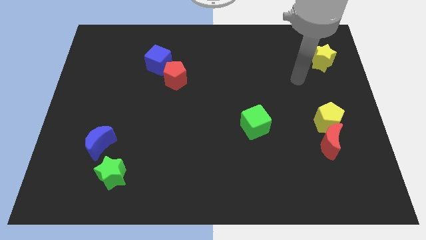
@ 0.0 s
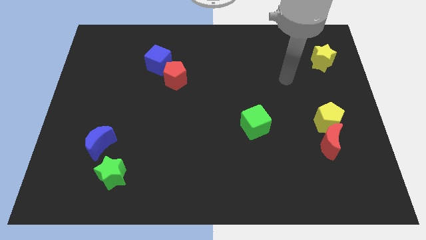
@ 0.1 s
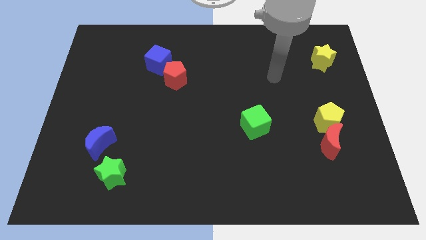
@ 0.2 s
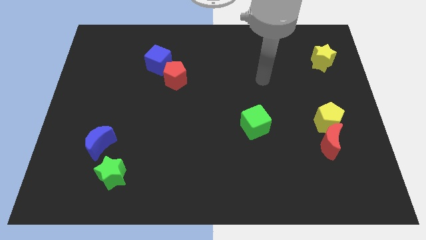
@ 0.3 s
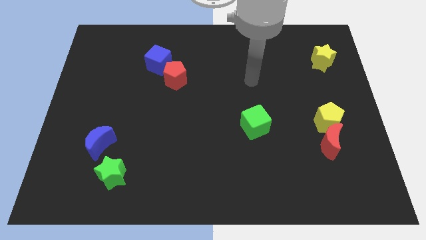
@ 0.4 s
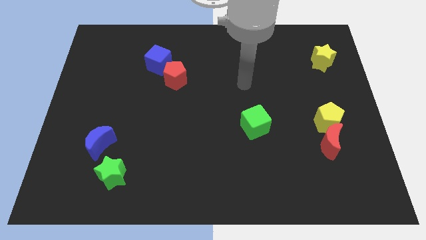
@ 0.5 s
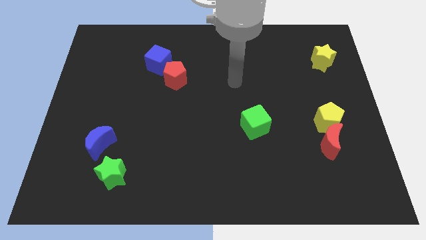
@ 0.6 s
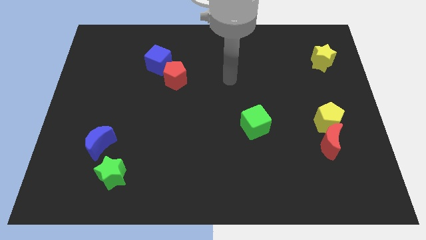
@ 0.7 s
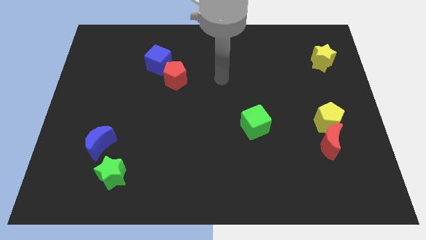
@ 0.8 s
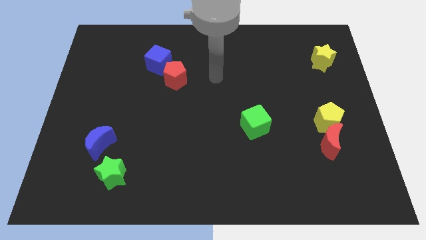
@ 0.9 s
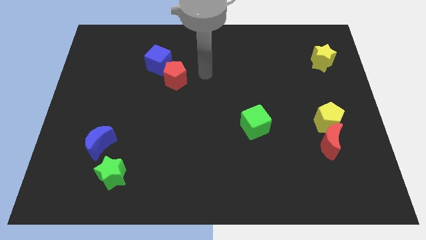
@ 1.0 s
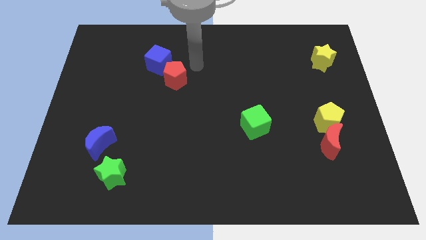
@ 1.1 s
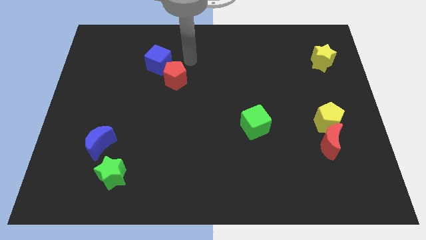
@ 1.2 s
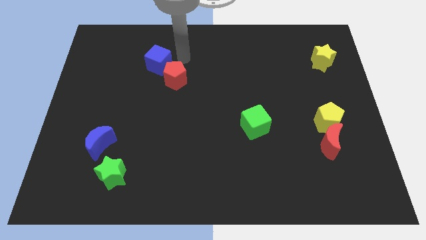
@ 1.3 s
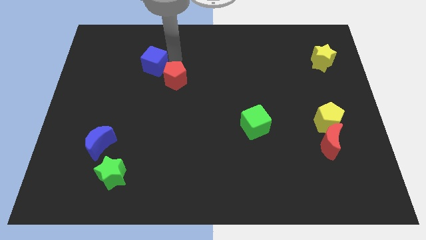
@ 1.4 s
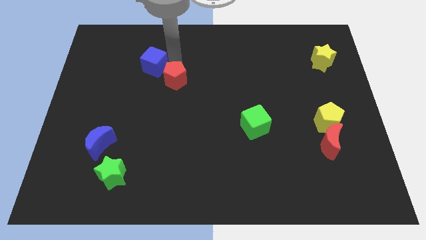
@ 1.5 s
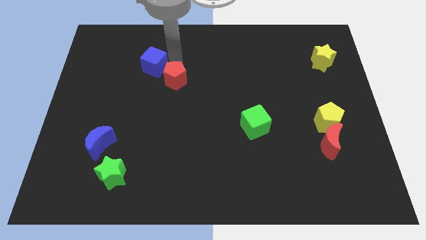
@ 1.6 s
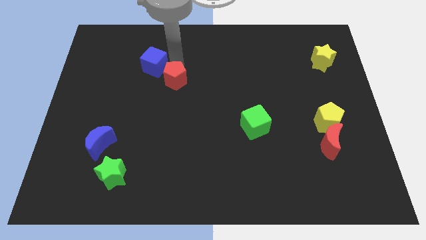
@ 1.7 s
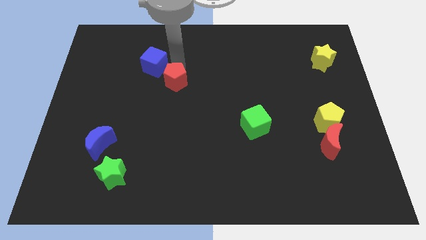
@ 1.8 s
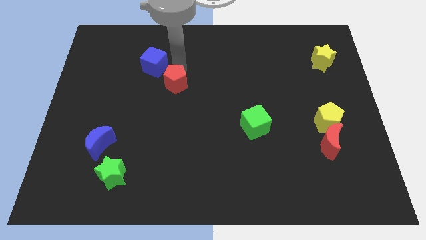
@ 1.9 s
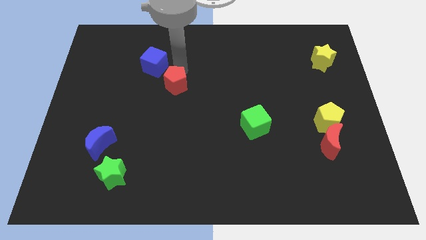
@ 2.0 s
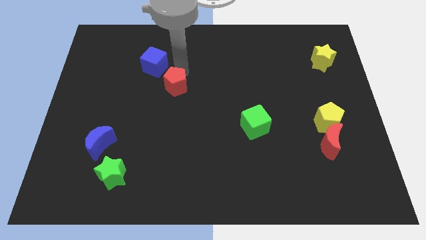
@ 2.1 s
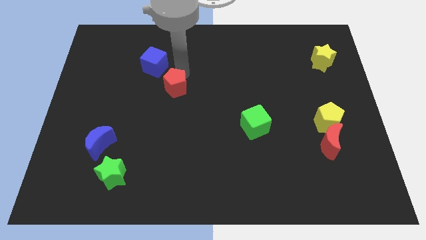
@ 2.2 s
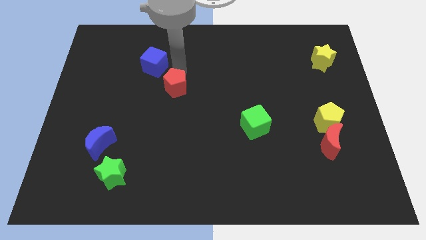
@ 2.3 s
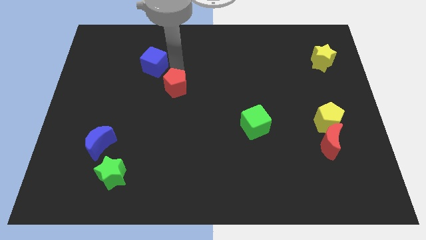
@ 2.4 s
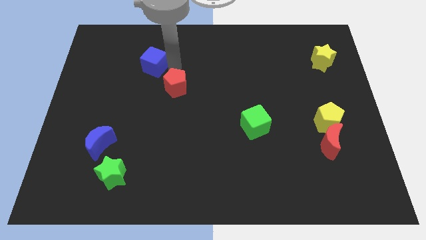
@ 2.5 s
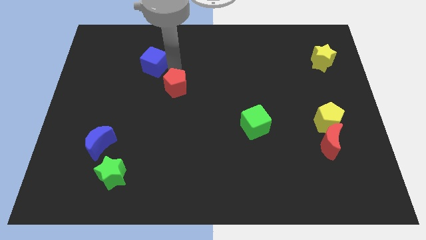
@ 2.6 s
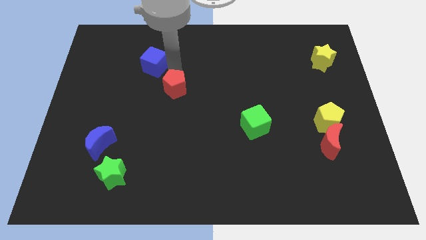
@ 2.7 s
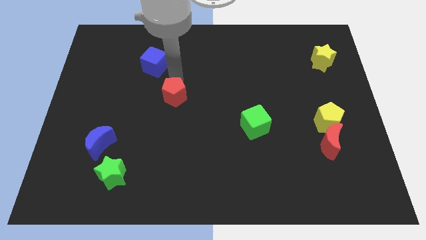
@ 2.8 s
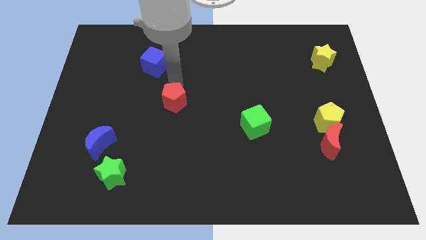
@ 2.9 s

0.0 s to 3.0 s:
push the red pentagon down somewhat

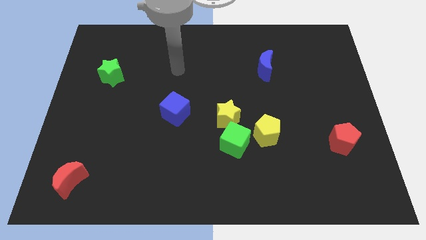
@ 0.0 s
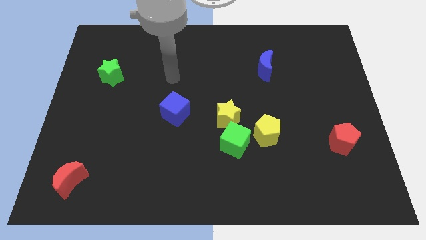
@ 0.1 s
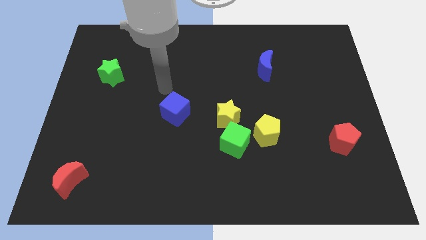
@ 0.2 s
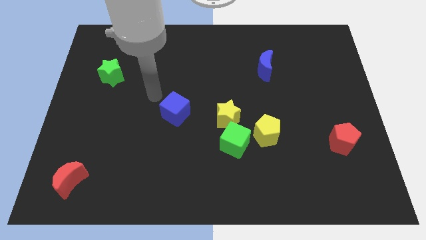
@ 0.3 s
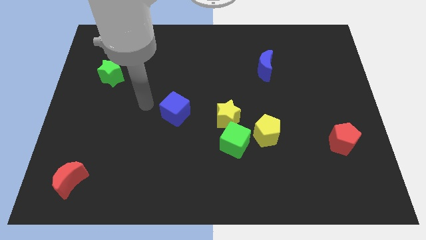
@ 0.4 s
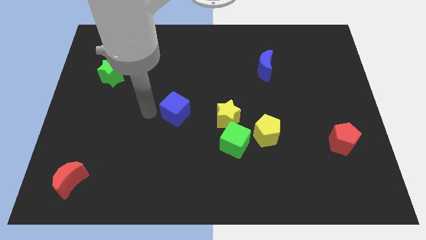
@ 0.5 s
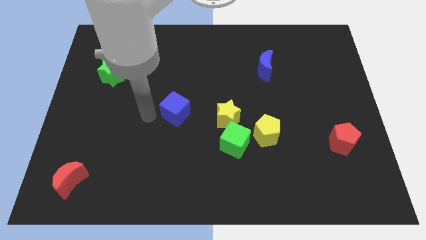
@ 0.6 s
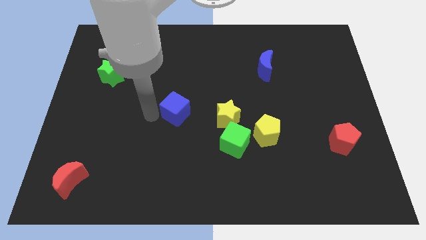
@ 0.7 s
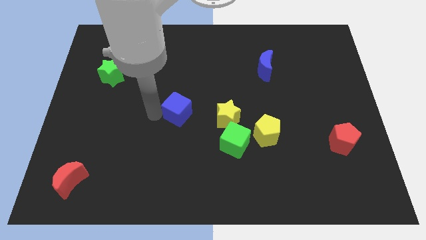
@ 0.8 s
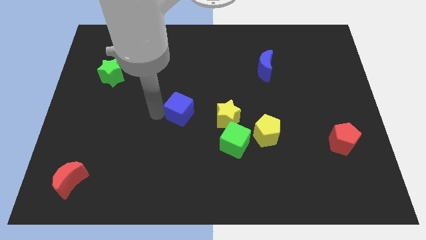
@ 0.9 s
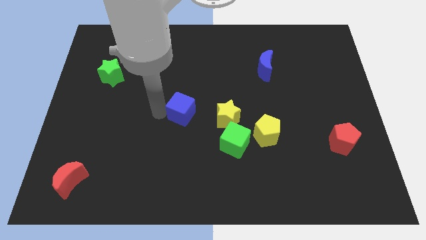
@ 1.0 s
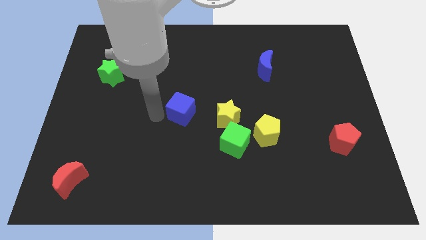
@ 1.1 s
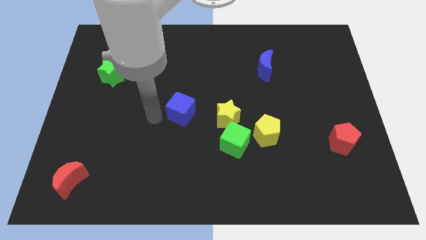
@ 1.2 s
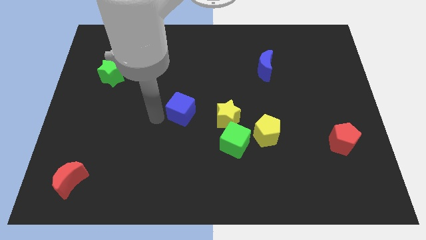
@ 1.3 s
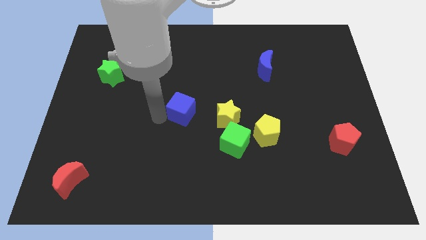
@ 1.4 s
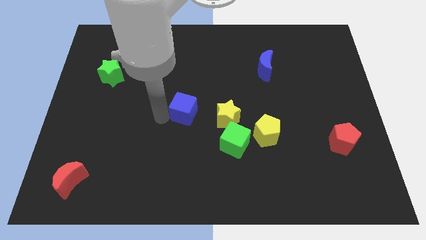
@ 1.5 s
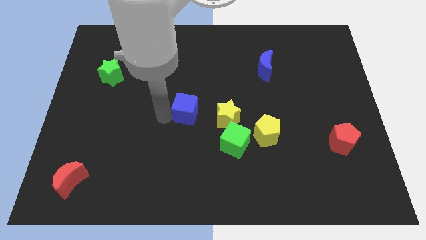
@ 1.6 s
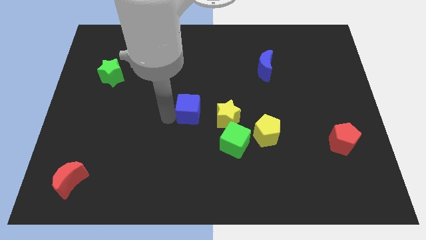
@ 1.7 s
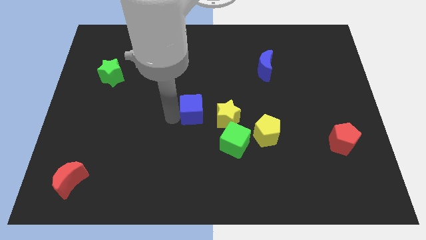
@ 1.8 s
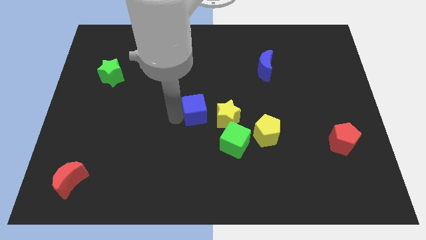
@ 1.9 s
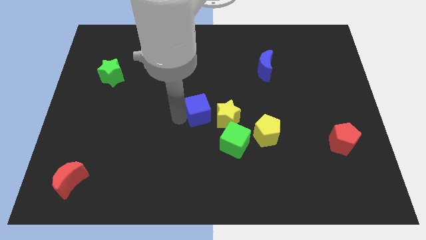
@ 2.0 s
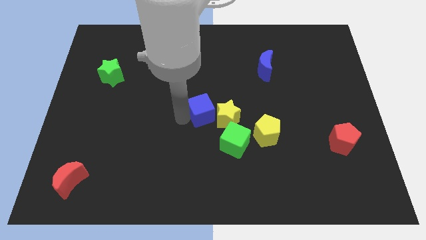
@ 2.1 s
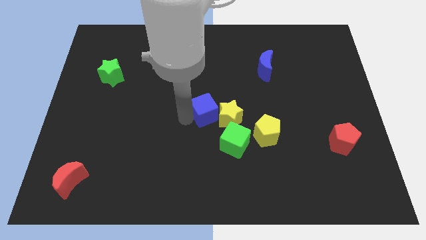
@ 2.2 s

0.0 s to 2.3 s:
slide the blue cube slightly right

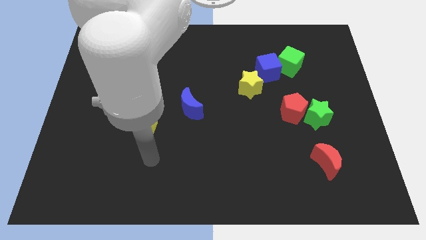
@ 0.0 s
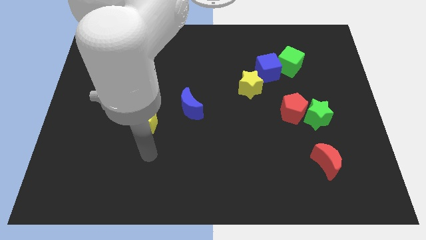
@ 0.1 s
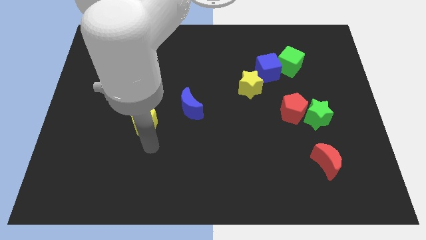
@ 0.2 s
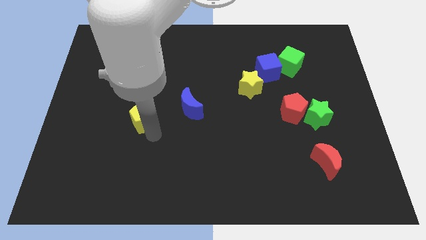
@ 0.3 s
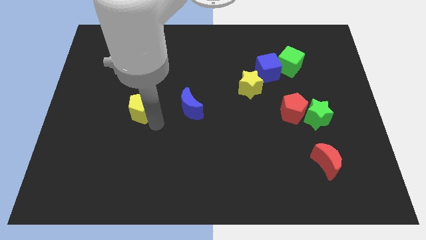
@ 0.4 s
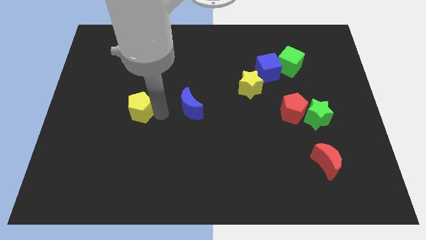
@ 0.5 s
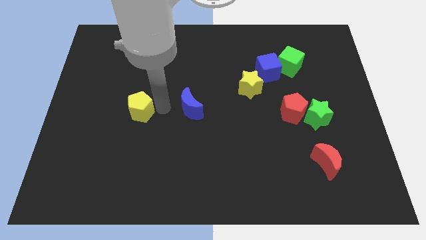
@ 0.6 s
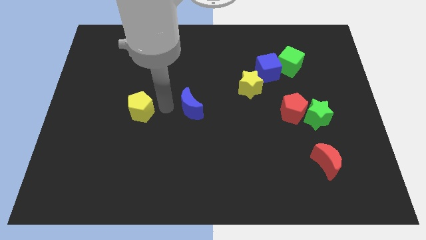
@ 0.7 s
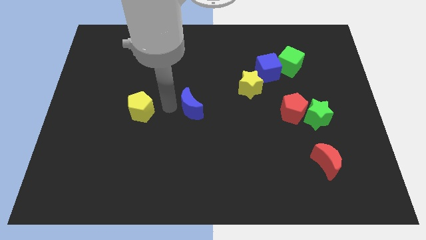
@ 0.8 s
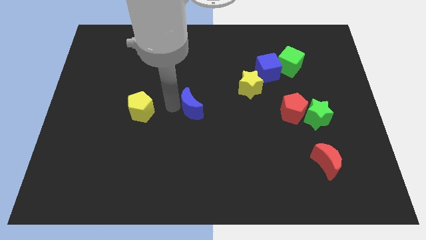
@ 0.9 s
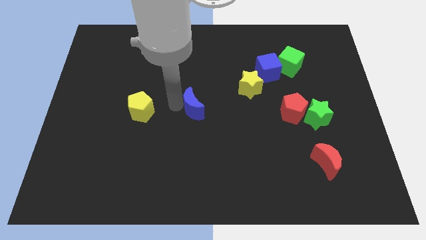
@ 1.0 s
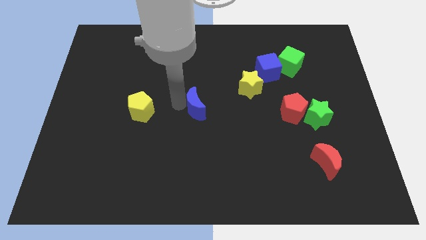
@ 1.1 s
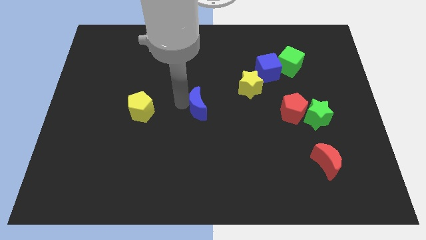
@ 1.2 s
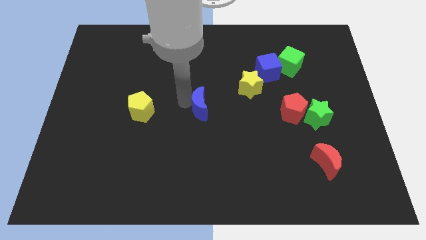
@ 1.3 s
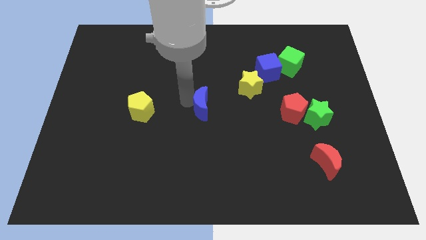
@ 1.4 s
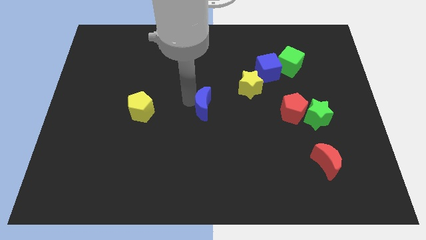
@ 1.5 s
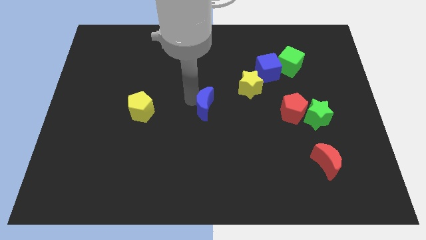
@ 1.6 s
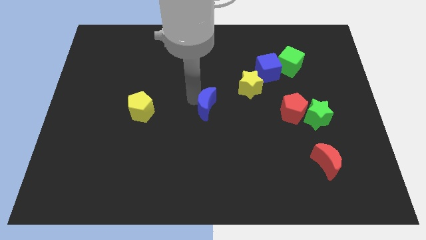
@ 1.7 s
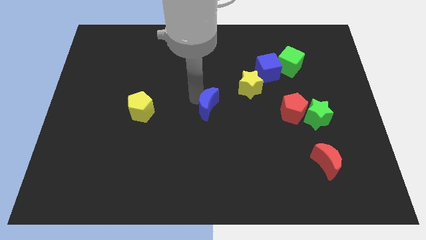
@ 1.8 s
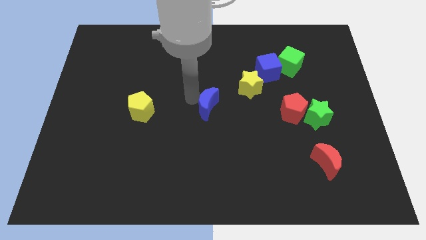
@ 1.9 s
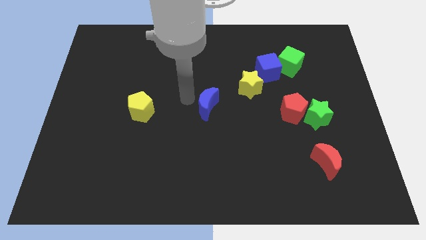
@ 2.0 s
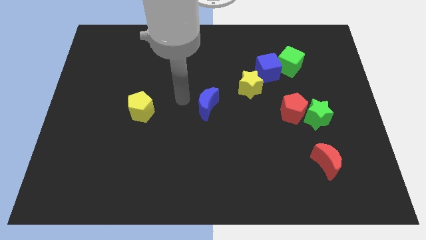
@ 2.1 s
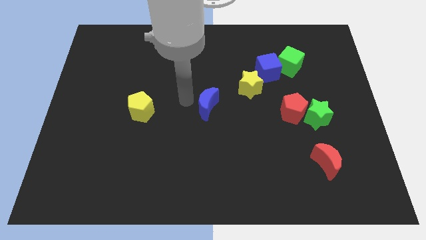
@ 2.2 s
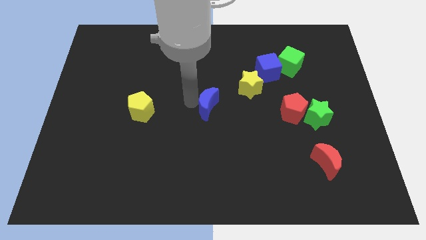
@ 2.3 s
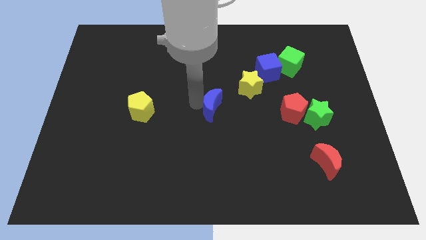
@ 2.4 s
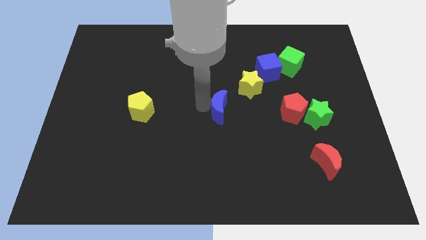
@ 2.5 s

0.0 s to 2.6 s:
slide the blue moon a bit right
